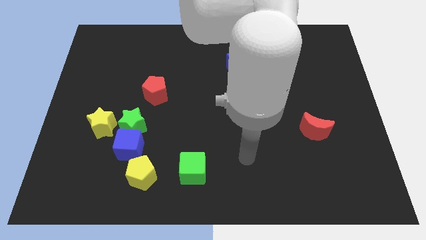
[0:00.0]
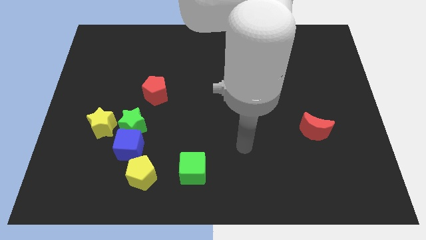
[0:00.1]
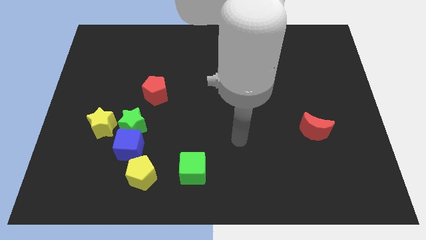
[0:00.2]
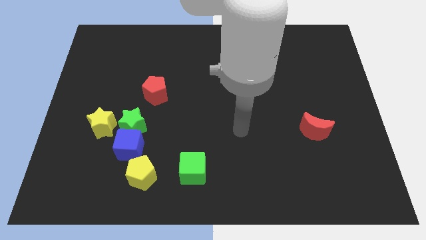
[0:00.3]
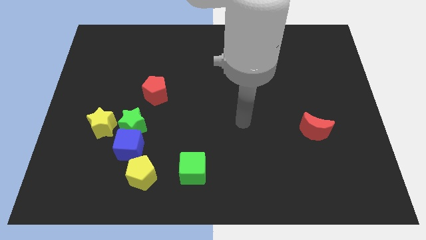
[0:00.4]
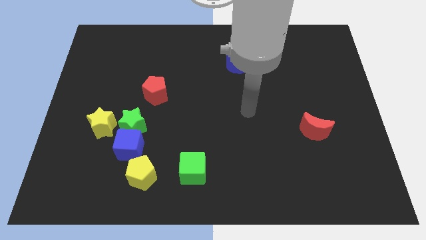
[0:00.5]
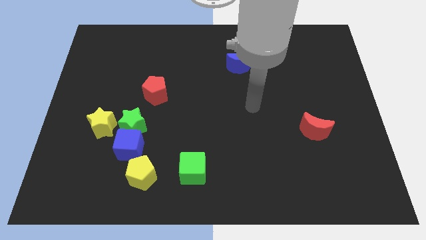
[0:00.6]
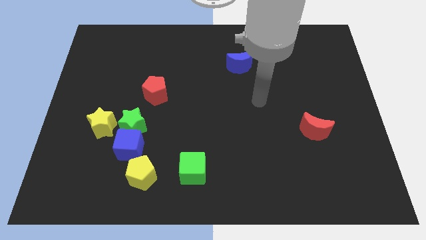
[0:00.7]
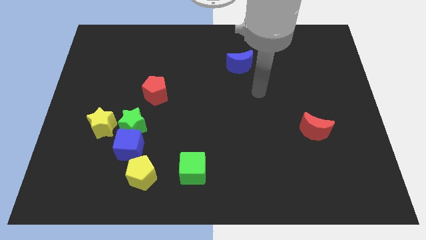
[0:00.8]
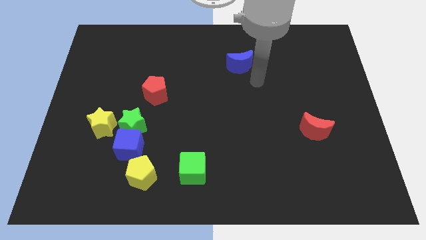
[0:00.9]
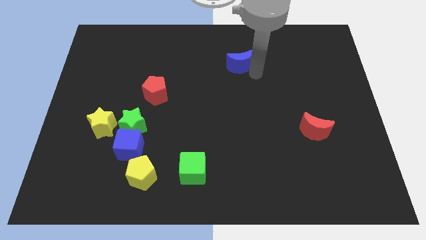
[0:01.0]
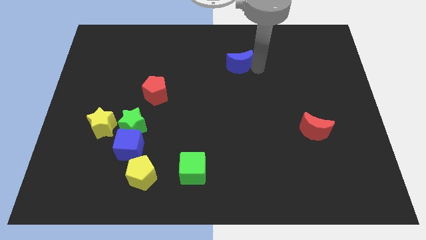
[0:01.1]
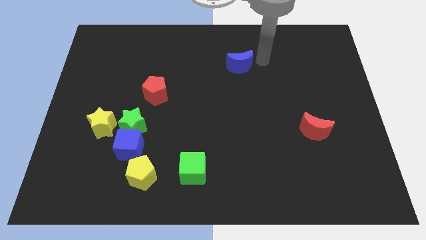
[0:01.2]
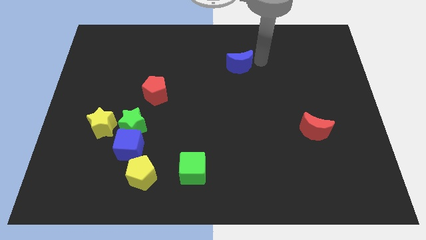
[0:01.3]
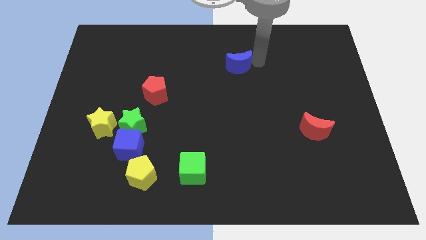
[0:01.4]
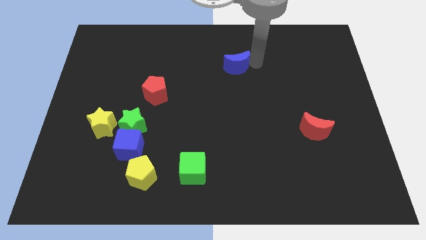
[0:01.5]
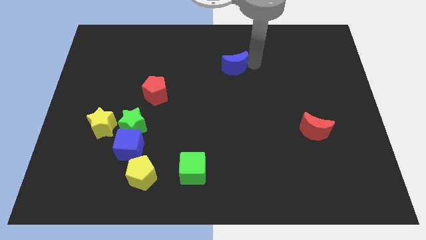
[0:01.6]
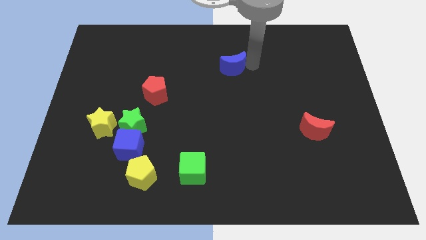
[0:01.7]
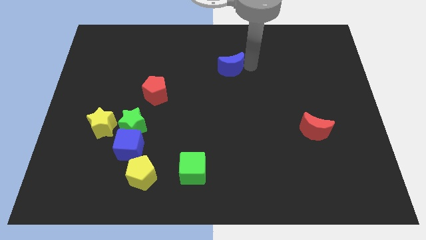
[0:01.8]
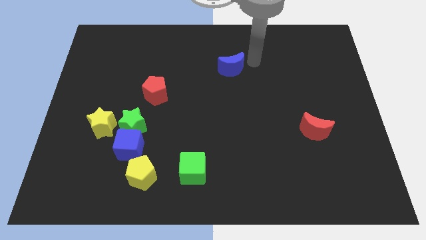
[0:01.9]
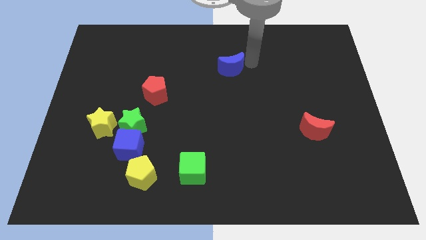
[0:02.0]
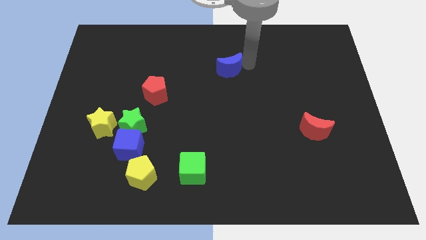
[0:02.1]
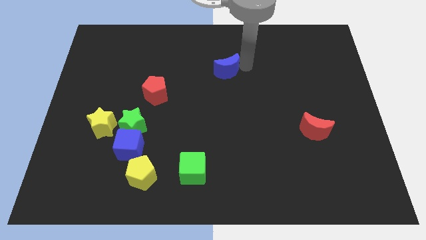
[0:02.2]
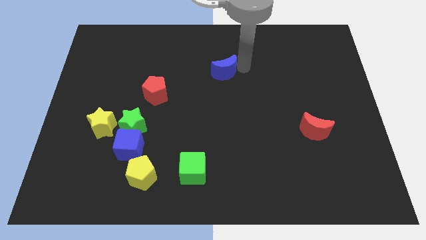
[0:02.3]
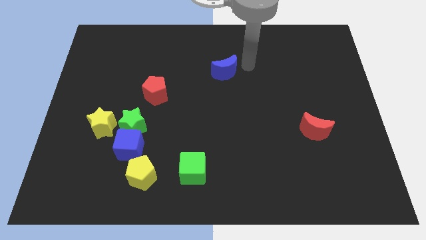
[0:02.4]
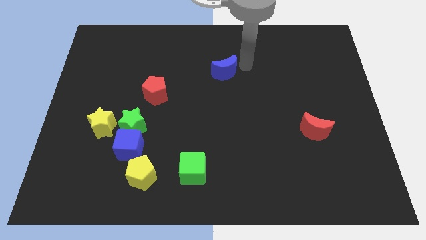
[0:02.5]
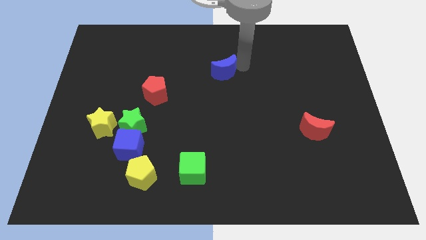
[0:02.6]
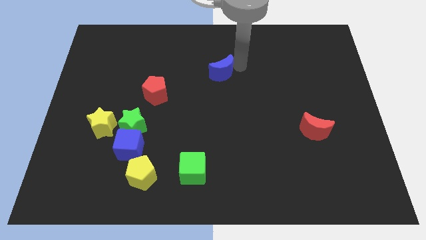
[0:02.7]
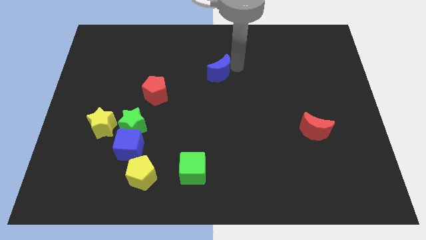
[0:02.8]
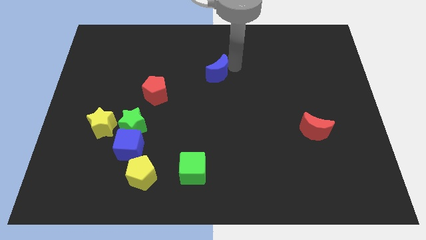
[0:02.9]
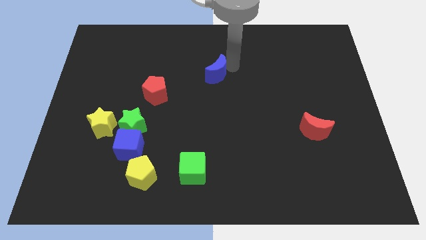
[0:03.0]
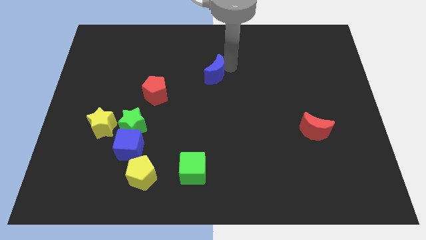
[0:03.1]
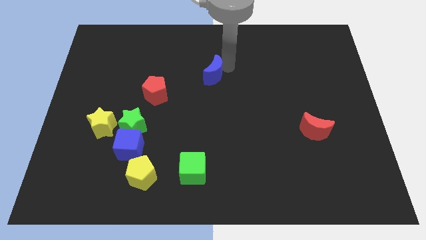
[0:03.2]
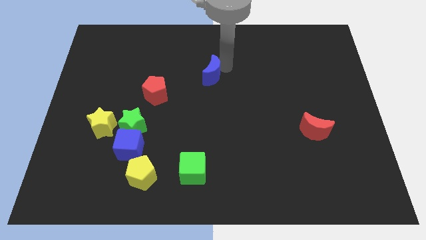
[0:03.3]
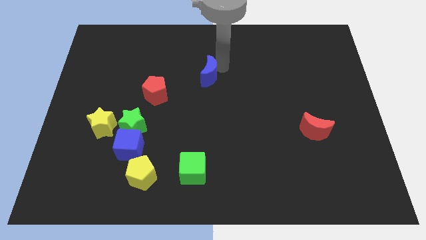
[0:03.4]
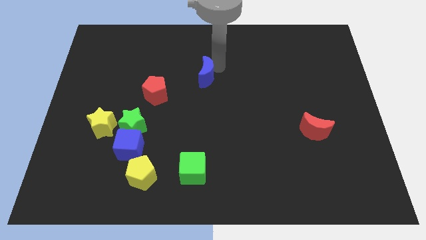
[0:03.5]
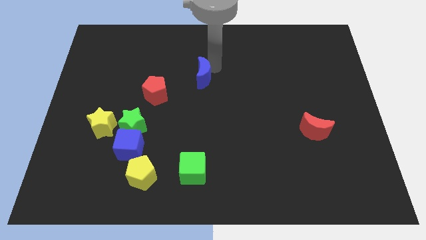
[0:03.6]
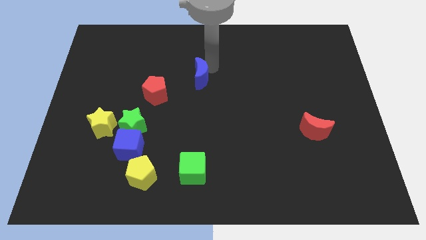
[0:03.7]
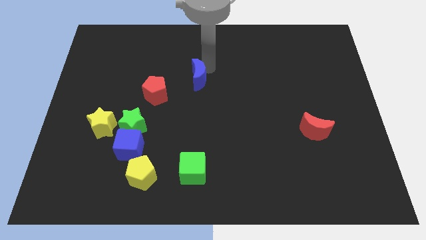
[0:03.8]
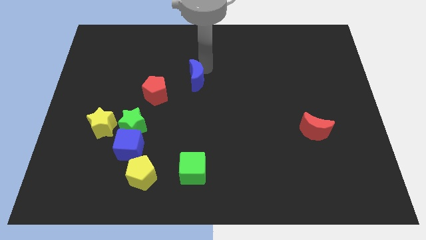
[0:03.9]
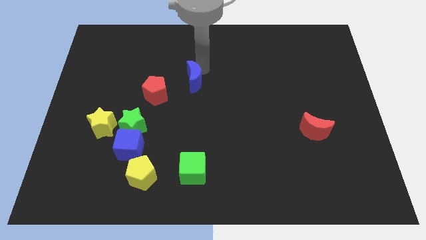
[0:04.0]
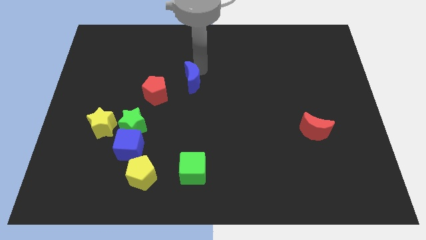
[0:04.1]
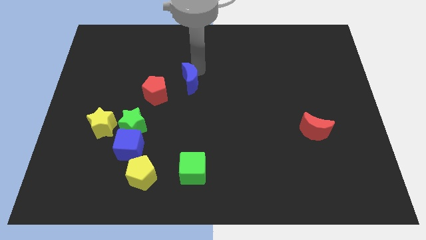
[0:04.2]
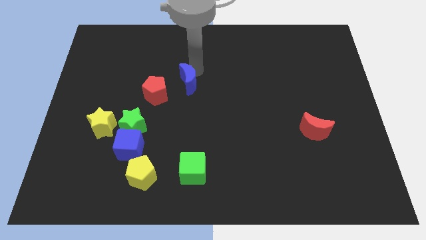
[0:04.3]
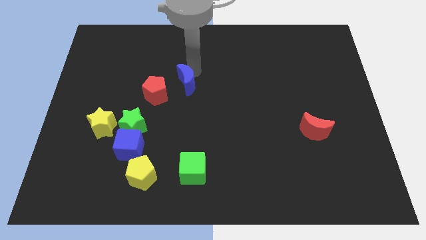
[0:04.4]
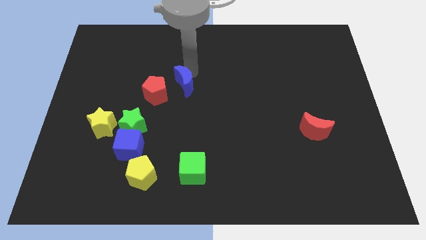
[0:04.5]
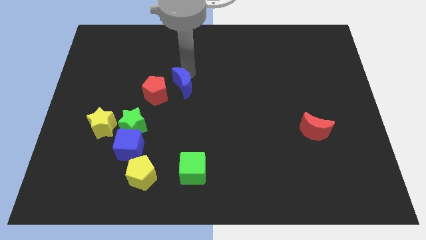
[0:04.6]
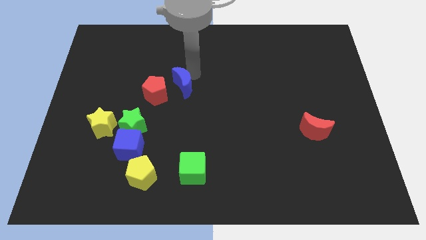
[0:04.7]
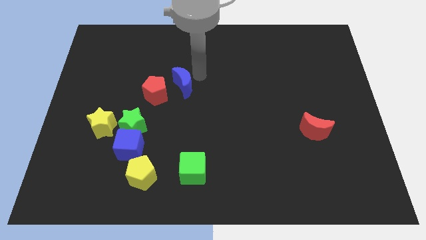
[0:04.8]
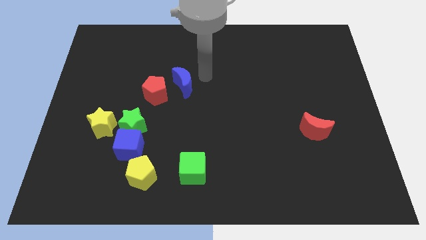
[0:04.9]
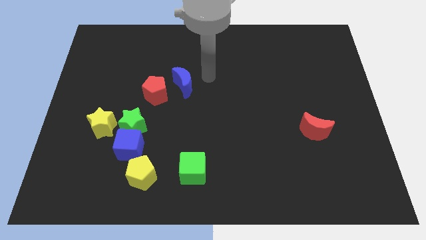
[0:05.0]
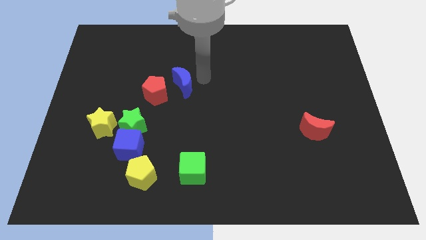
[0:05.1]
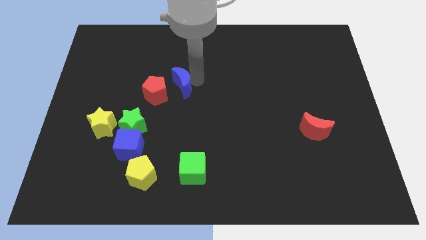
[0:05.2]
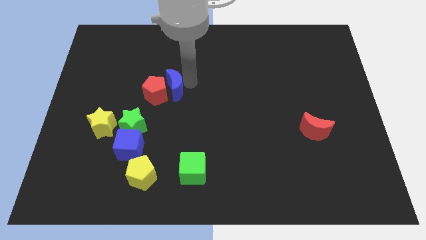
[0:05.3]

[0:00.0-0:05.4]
push the blue moon to the red pentagon

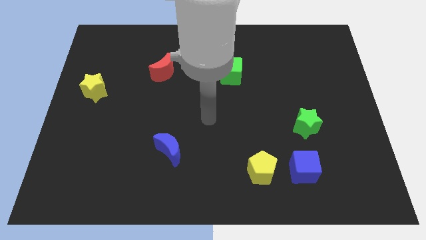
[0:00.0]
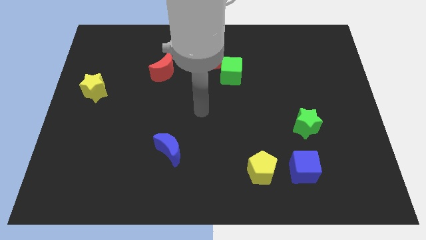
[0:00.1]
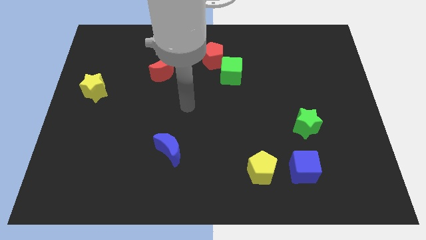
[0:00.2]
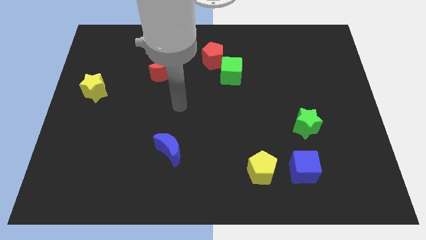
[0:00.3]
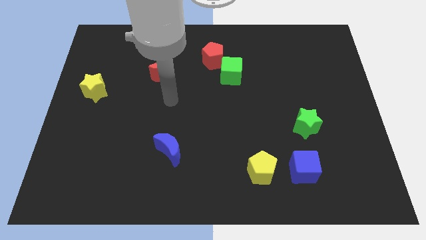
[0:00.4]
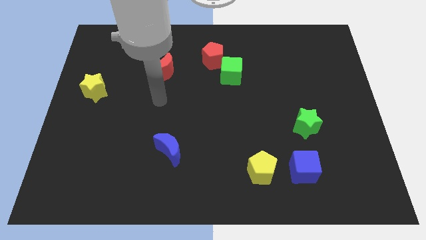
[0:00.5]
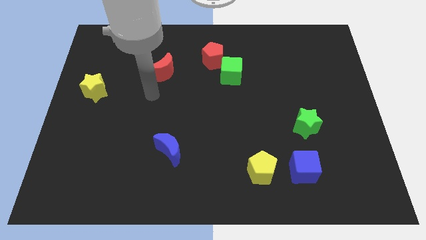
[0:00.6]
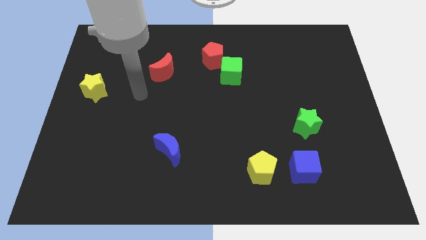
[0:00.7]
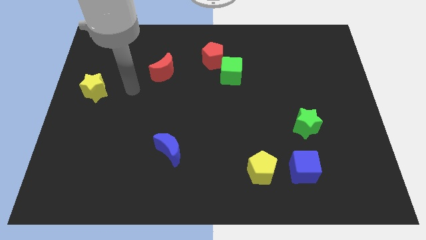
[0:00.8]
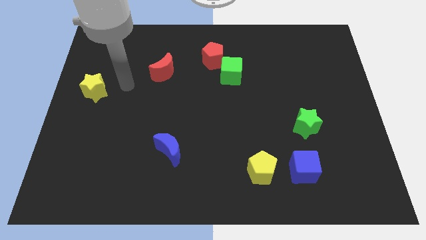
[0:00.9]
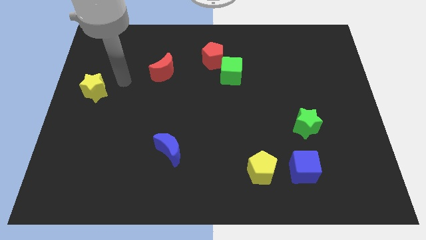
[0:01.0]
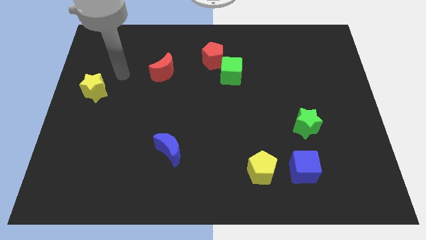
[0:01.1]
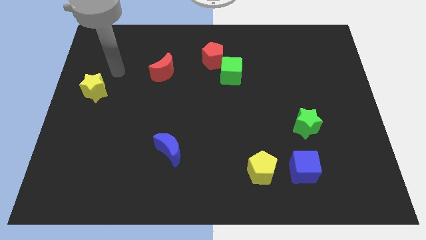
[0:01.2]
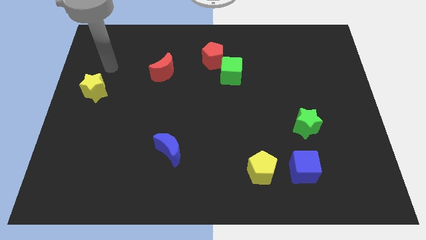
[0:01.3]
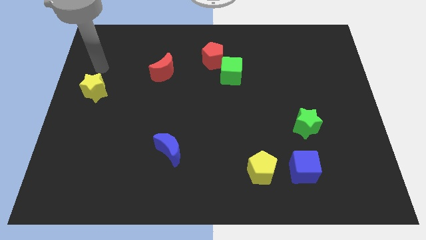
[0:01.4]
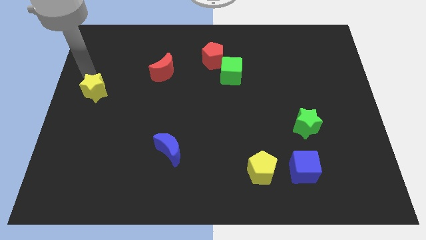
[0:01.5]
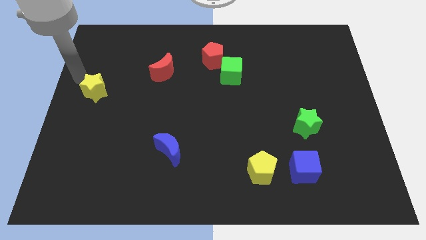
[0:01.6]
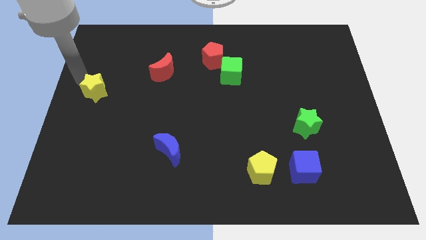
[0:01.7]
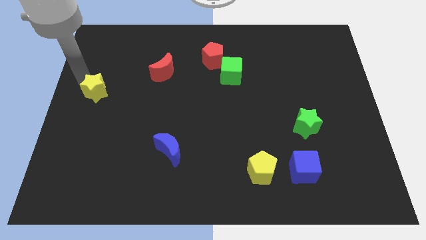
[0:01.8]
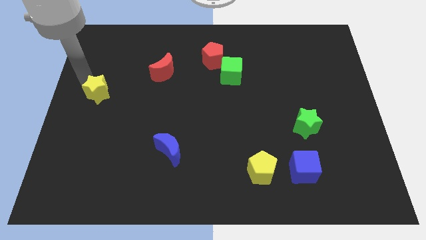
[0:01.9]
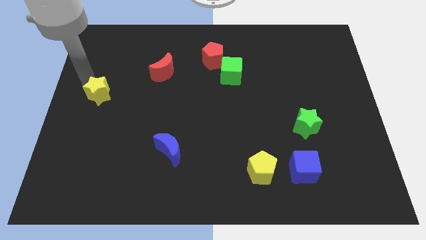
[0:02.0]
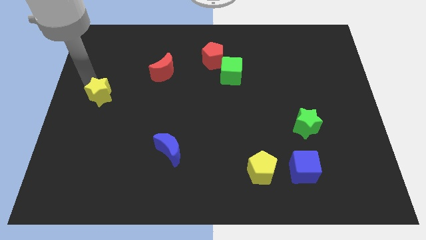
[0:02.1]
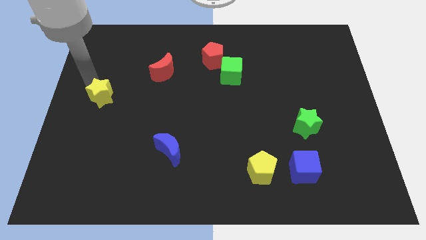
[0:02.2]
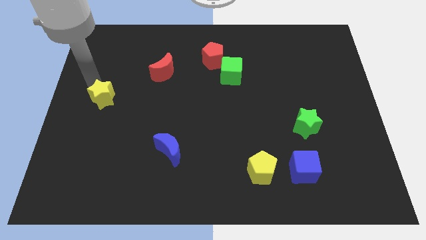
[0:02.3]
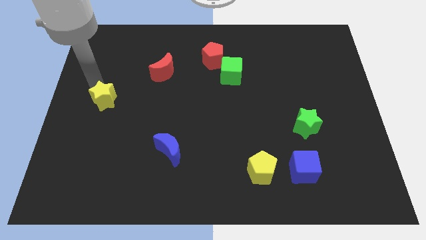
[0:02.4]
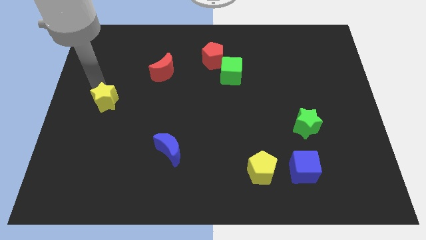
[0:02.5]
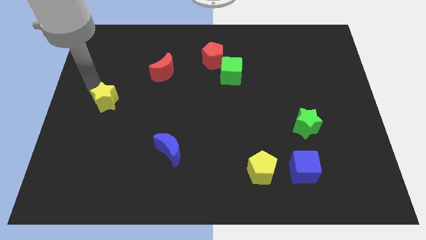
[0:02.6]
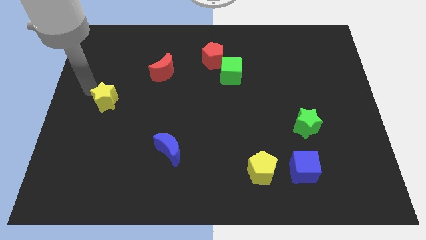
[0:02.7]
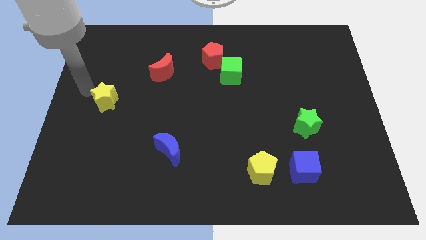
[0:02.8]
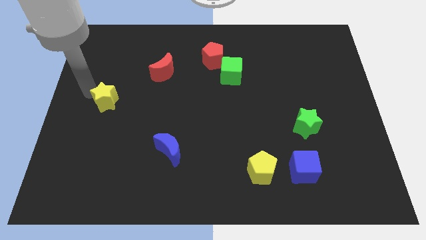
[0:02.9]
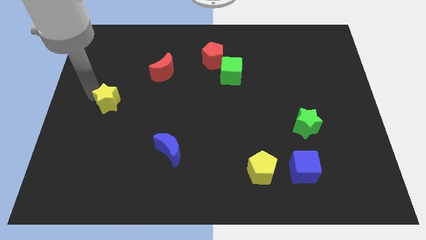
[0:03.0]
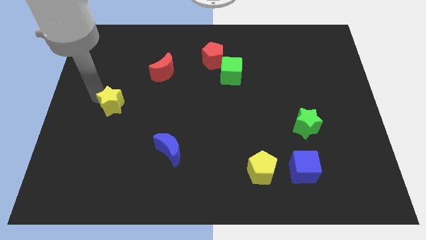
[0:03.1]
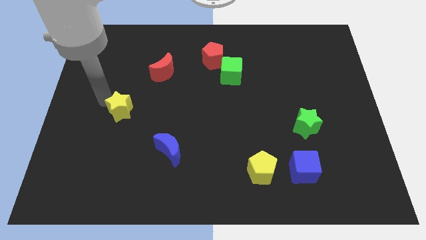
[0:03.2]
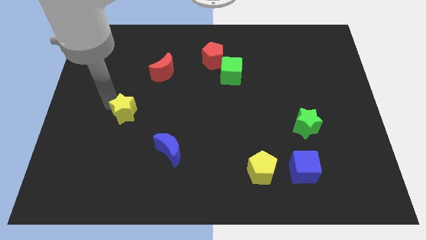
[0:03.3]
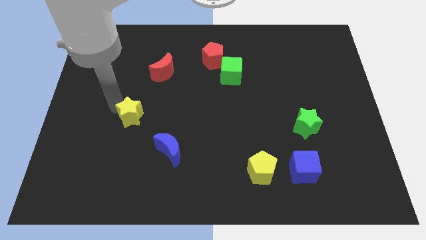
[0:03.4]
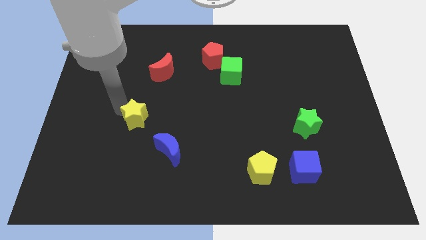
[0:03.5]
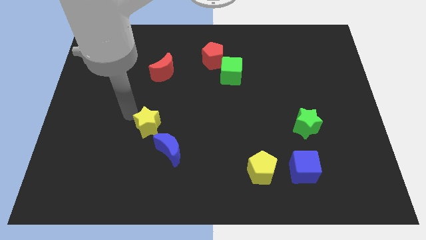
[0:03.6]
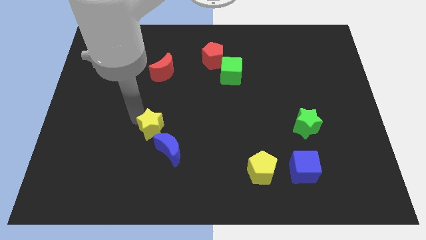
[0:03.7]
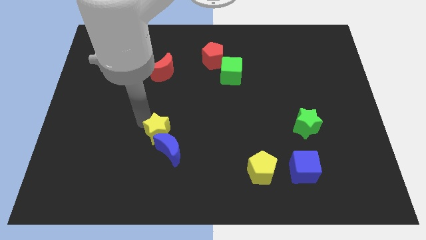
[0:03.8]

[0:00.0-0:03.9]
put the yellow star next to the blue moon
